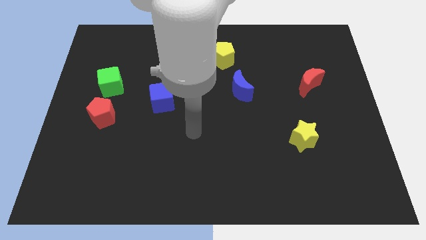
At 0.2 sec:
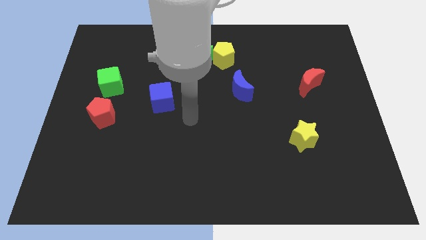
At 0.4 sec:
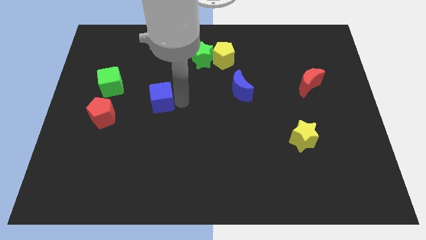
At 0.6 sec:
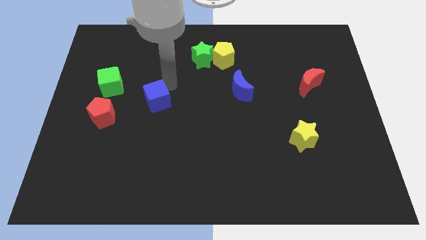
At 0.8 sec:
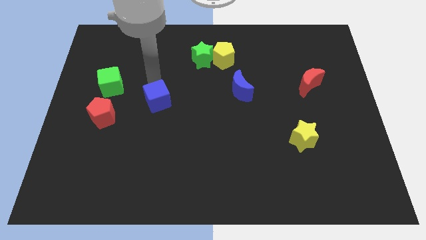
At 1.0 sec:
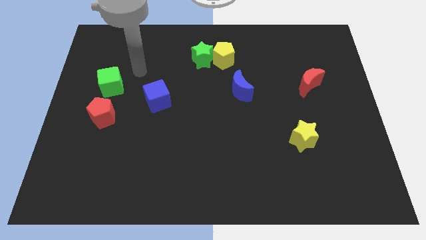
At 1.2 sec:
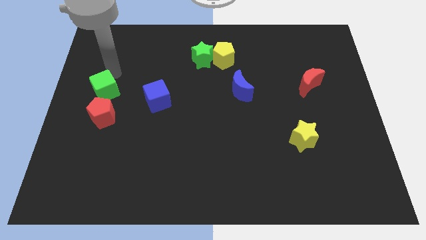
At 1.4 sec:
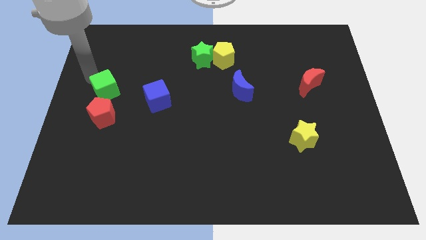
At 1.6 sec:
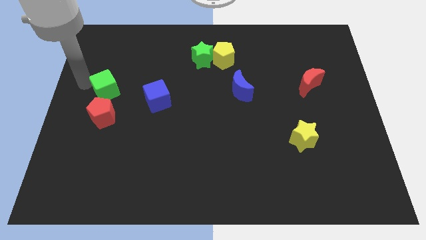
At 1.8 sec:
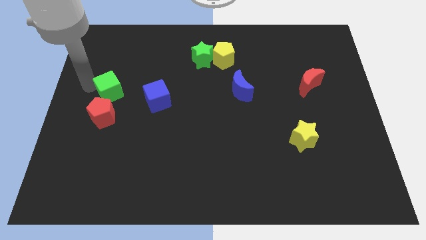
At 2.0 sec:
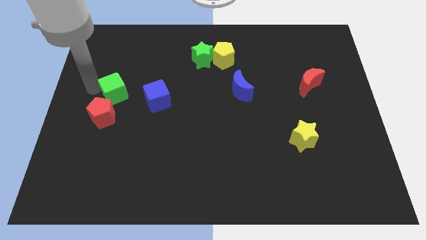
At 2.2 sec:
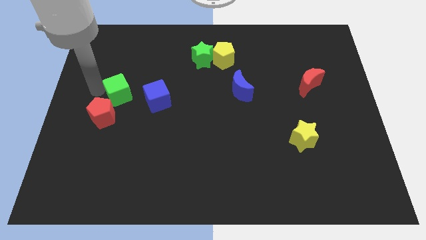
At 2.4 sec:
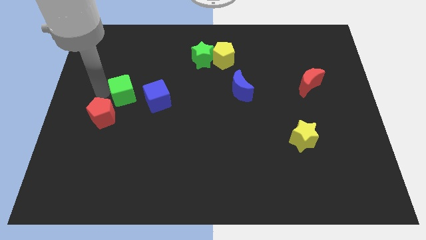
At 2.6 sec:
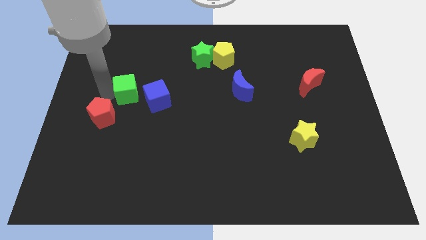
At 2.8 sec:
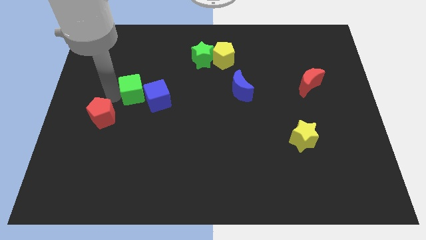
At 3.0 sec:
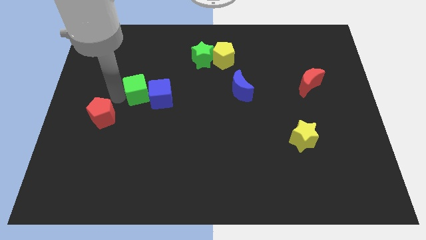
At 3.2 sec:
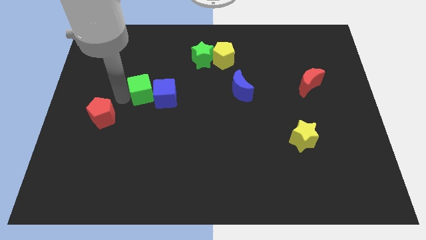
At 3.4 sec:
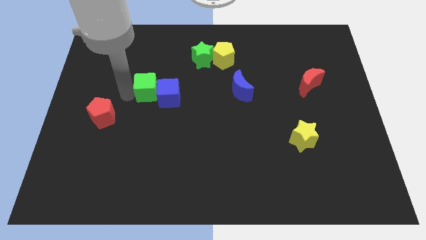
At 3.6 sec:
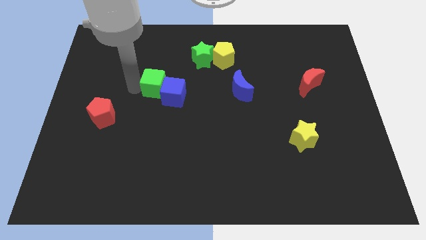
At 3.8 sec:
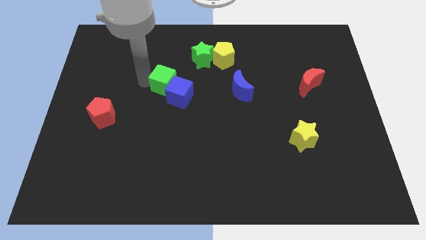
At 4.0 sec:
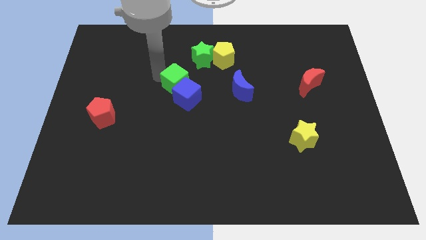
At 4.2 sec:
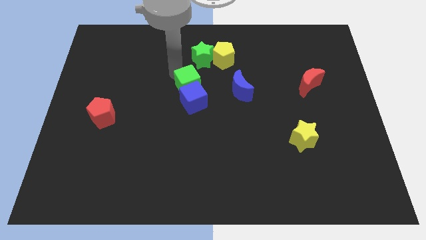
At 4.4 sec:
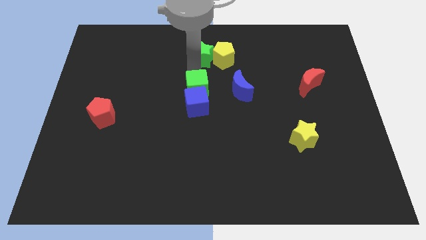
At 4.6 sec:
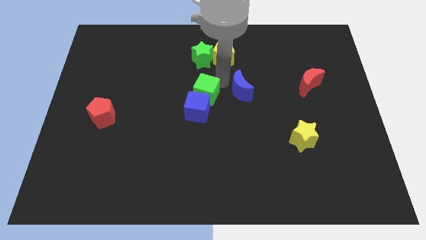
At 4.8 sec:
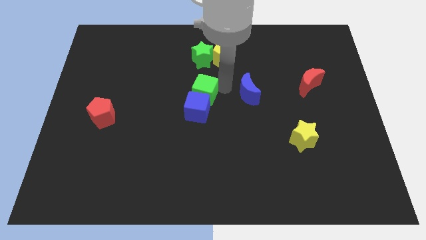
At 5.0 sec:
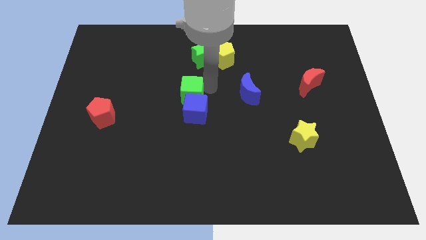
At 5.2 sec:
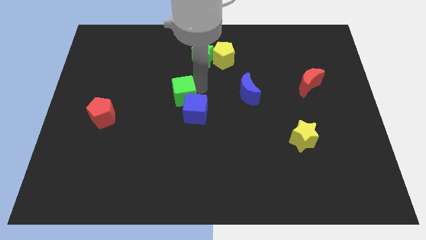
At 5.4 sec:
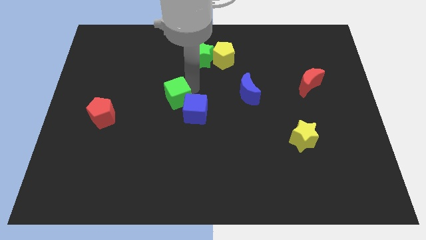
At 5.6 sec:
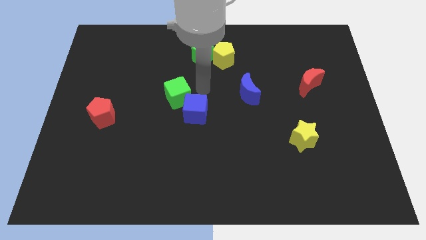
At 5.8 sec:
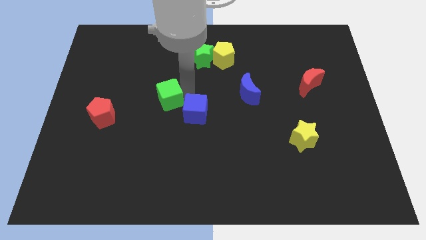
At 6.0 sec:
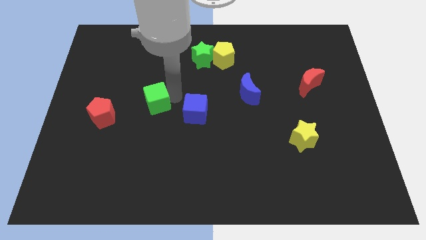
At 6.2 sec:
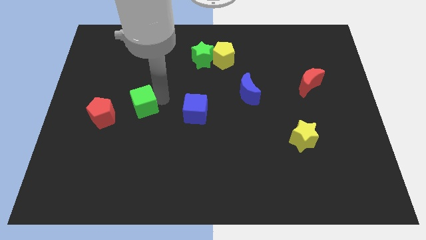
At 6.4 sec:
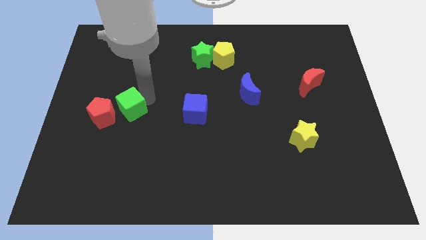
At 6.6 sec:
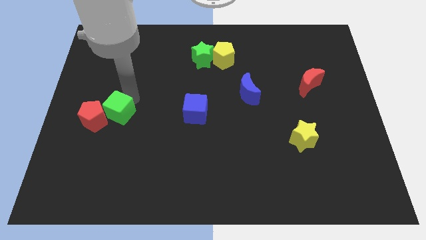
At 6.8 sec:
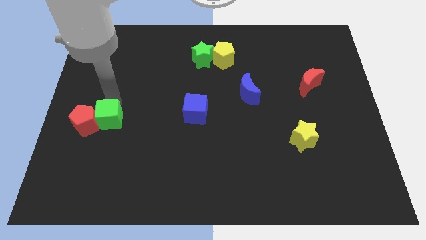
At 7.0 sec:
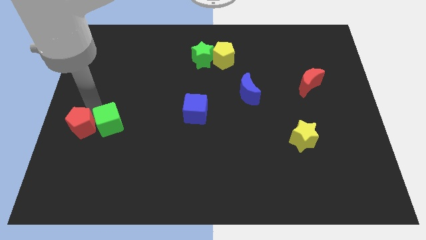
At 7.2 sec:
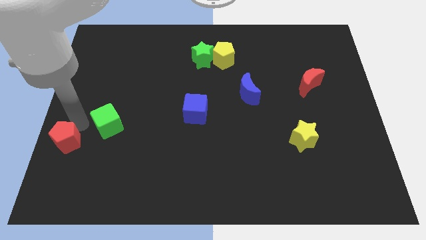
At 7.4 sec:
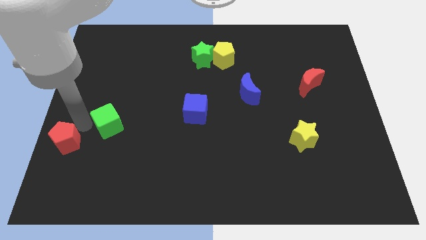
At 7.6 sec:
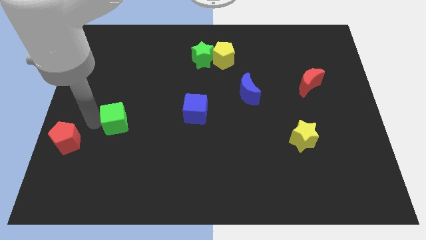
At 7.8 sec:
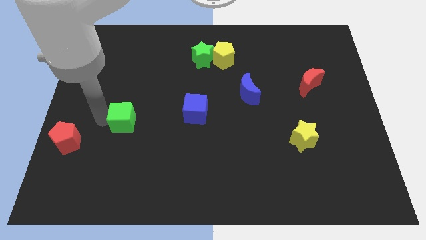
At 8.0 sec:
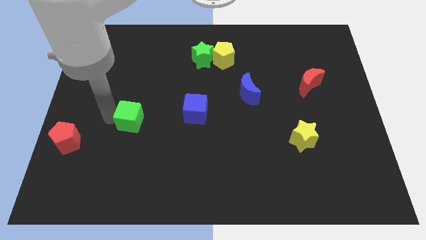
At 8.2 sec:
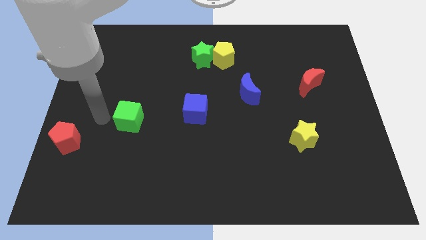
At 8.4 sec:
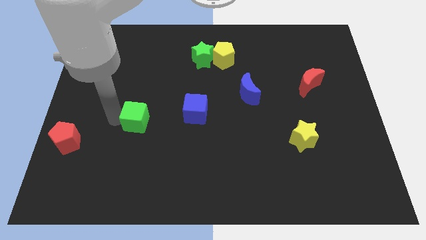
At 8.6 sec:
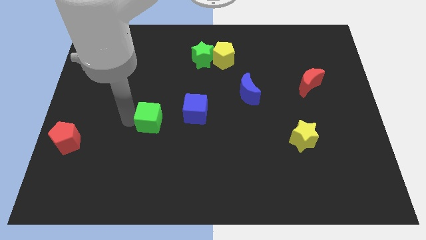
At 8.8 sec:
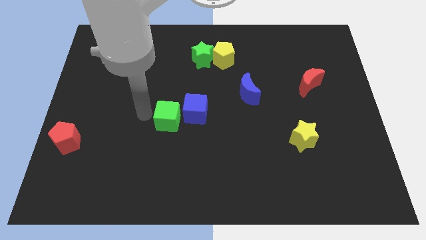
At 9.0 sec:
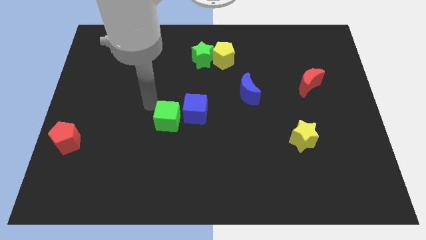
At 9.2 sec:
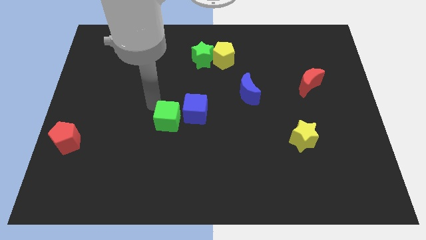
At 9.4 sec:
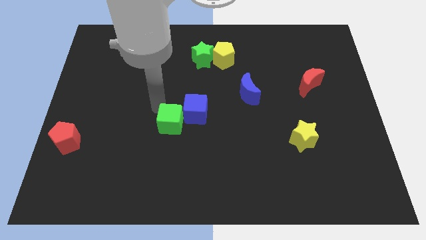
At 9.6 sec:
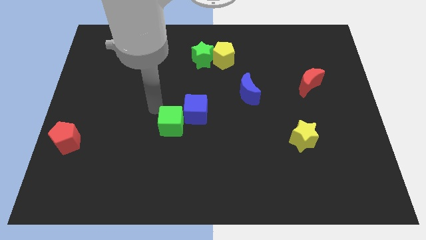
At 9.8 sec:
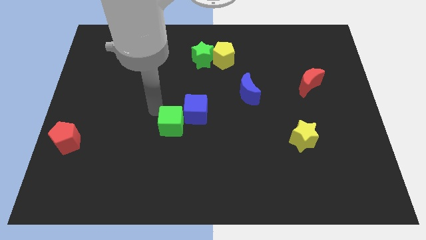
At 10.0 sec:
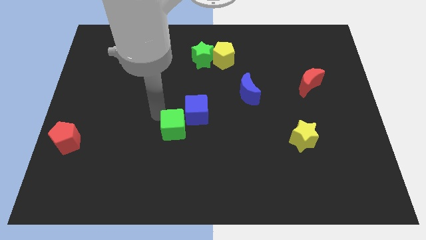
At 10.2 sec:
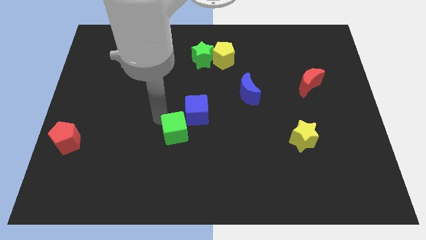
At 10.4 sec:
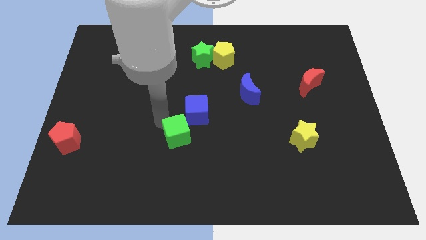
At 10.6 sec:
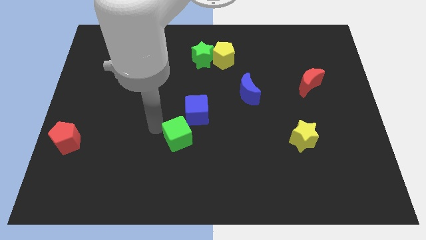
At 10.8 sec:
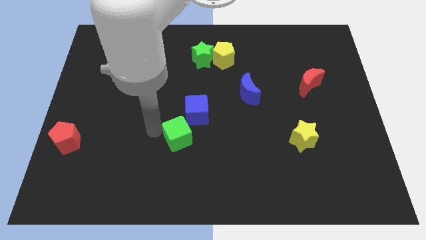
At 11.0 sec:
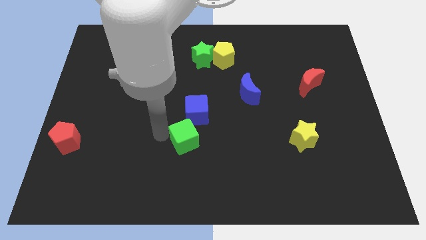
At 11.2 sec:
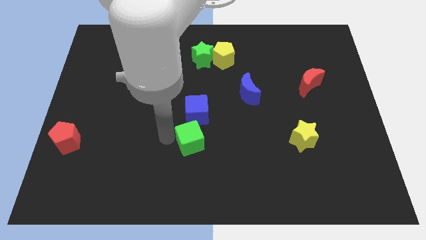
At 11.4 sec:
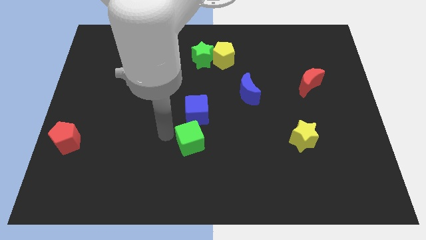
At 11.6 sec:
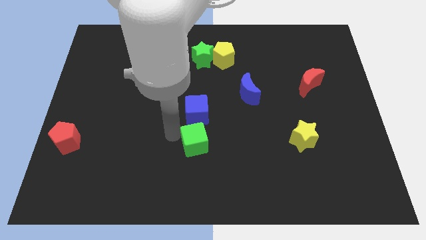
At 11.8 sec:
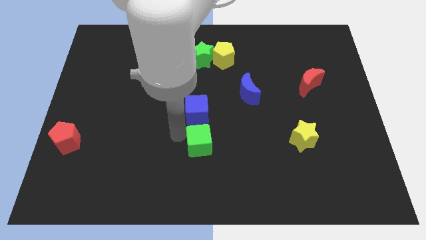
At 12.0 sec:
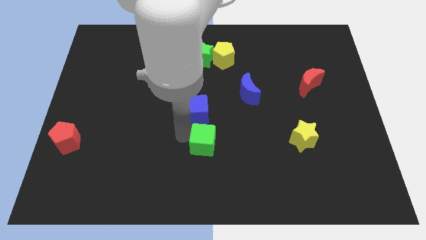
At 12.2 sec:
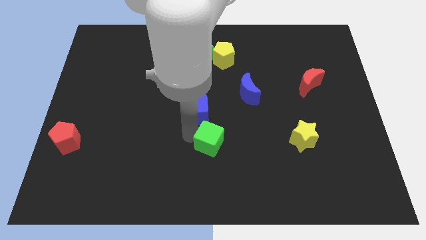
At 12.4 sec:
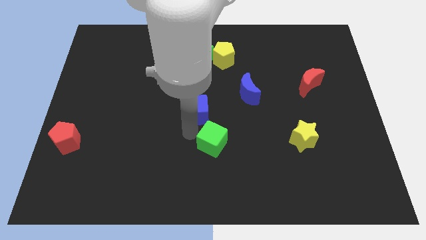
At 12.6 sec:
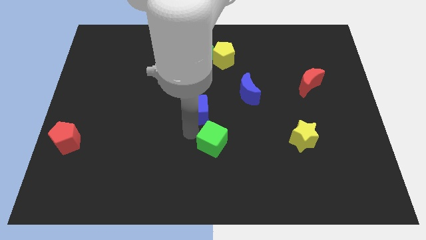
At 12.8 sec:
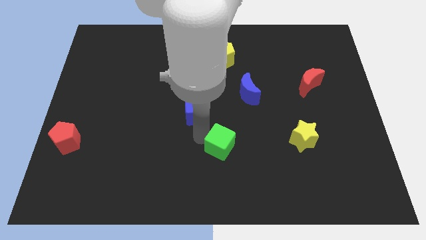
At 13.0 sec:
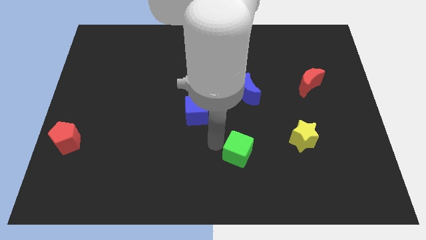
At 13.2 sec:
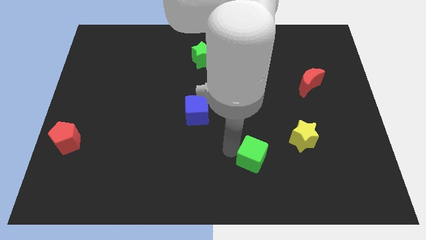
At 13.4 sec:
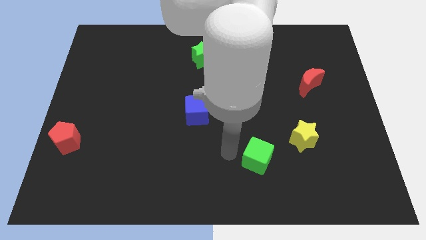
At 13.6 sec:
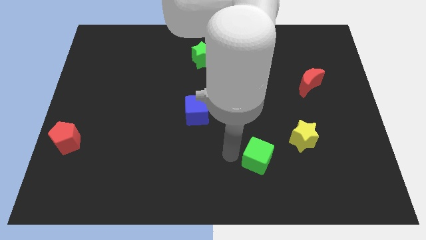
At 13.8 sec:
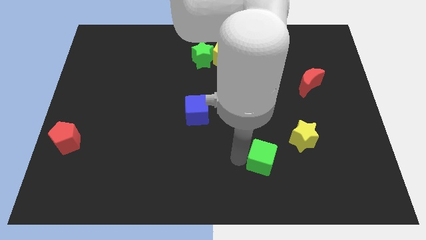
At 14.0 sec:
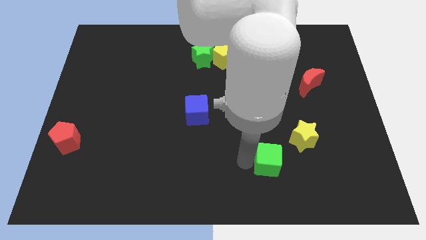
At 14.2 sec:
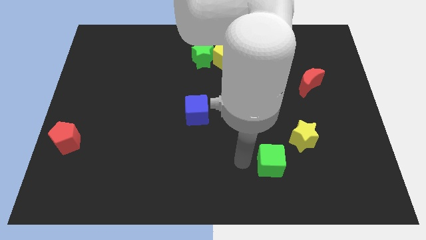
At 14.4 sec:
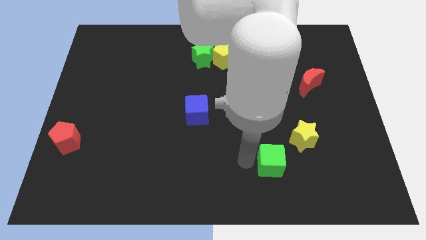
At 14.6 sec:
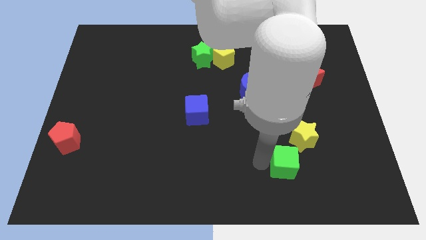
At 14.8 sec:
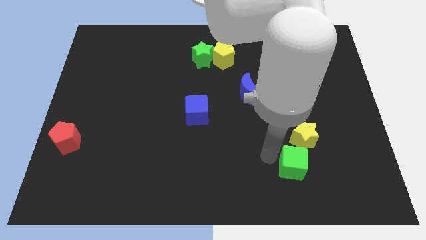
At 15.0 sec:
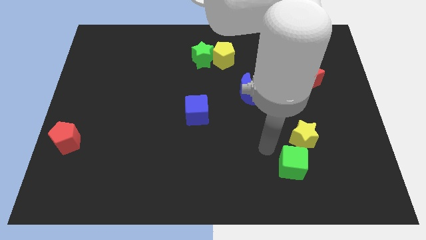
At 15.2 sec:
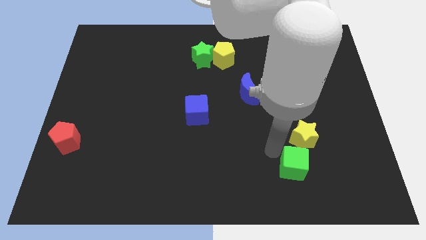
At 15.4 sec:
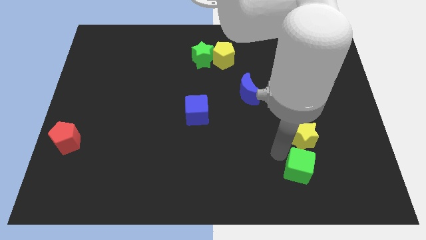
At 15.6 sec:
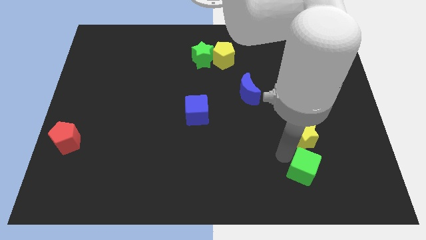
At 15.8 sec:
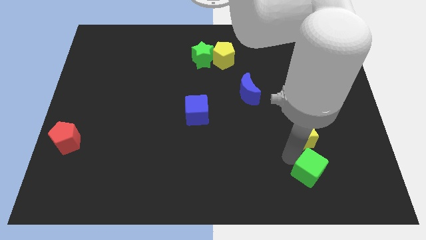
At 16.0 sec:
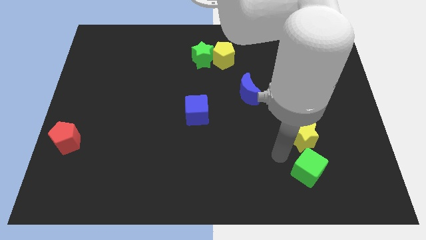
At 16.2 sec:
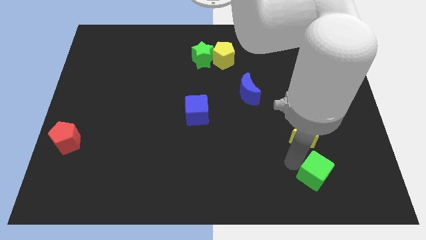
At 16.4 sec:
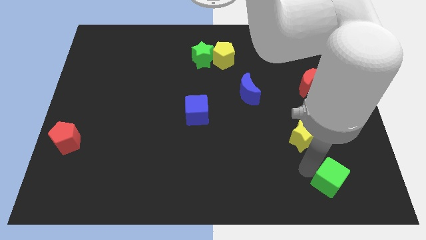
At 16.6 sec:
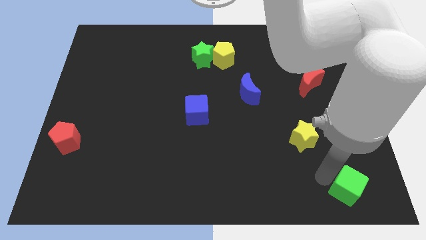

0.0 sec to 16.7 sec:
slide the green cube to the bottom right of the board
